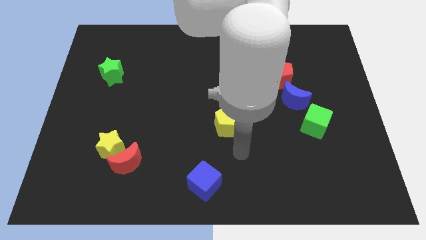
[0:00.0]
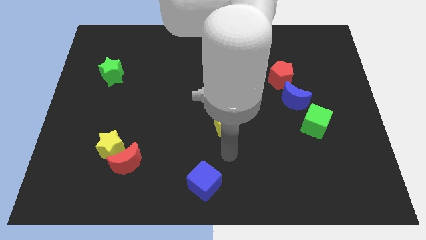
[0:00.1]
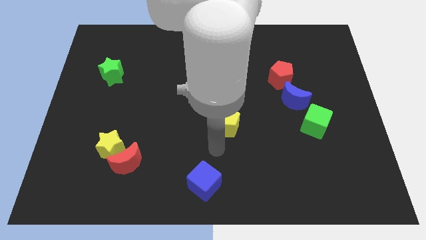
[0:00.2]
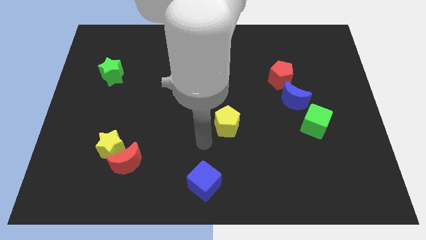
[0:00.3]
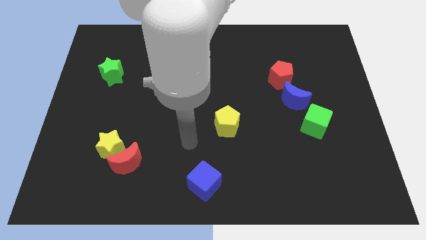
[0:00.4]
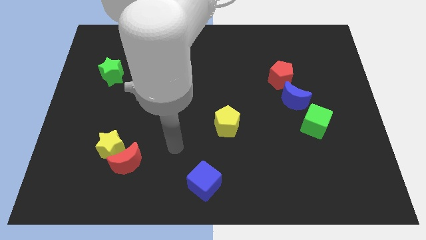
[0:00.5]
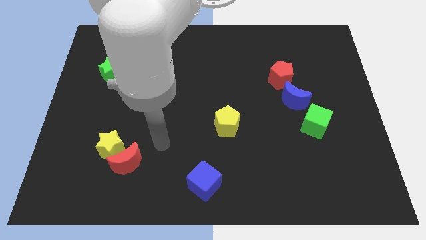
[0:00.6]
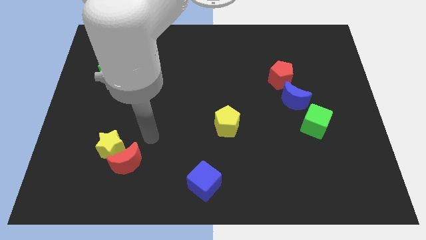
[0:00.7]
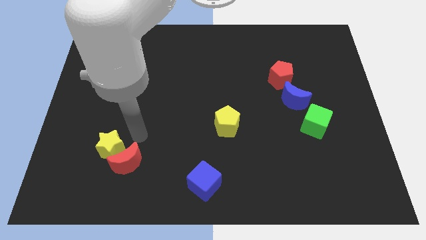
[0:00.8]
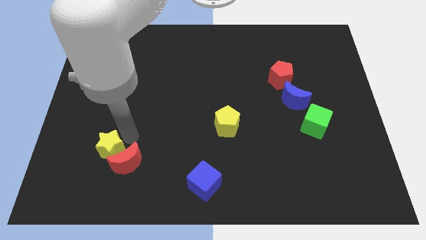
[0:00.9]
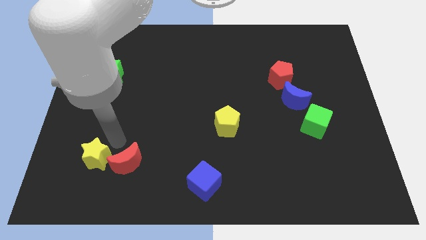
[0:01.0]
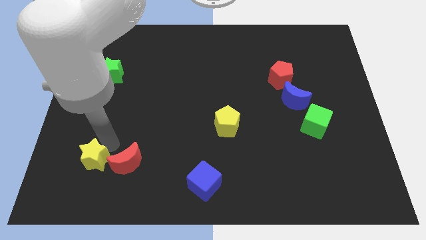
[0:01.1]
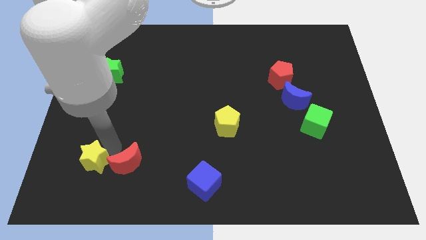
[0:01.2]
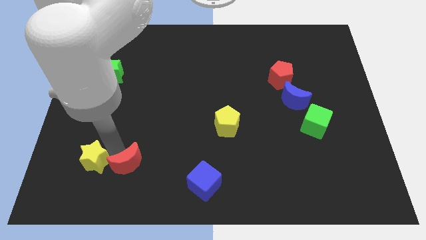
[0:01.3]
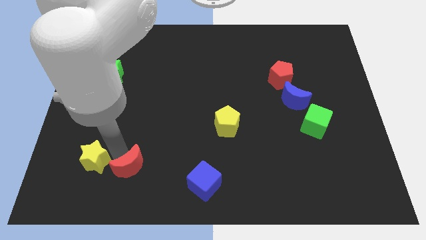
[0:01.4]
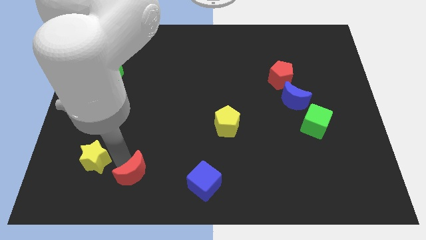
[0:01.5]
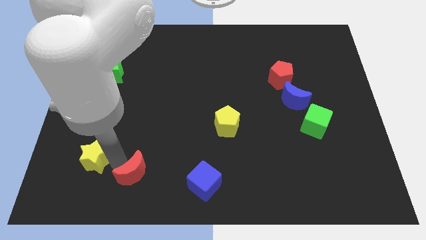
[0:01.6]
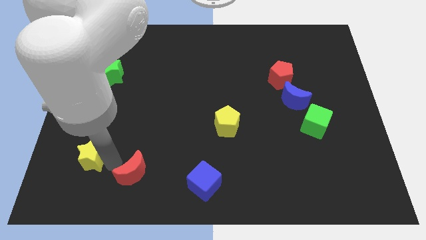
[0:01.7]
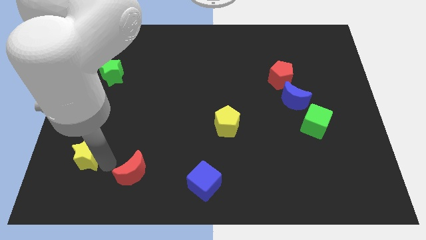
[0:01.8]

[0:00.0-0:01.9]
separate the red moon from the yellow star

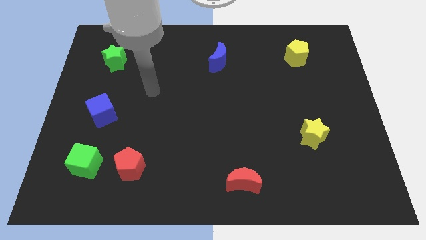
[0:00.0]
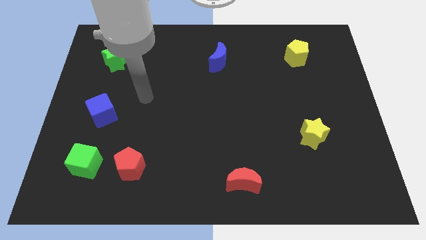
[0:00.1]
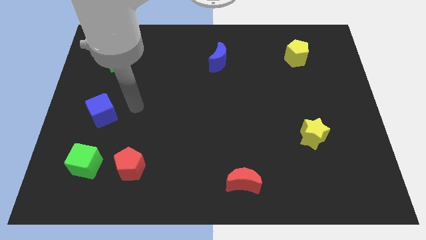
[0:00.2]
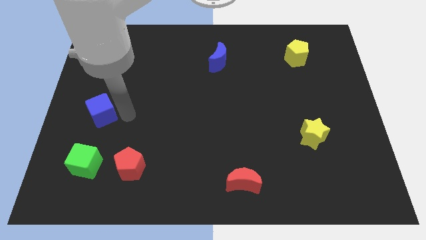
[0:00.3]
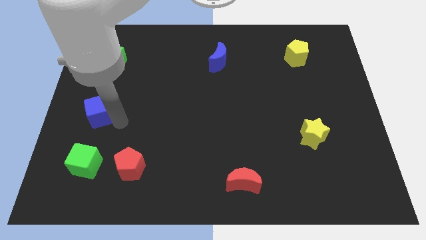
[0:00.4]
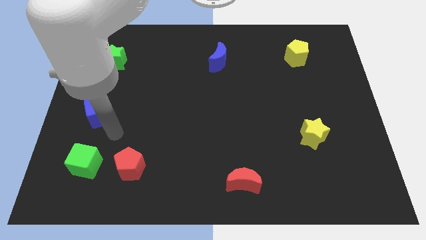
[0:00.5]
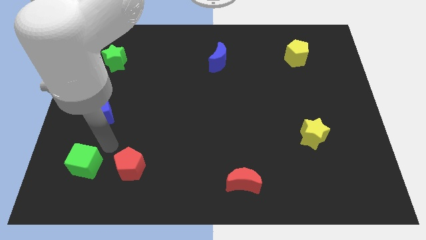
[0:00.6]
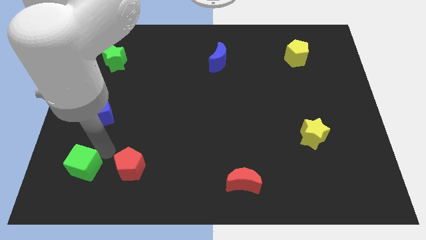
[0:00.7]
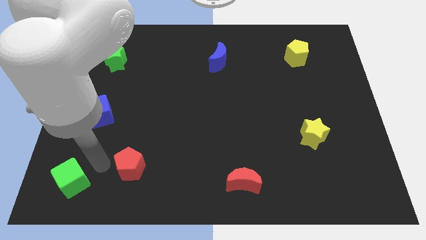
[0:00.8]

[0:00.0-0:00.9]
move the red pentagon away from the green cube

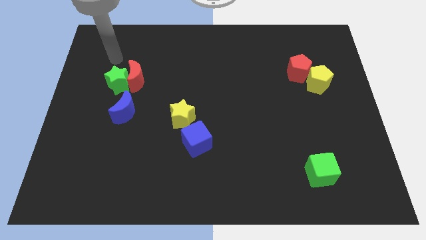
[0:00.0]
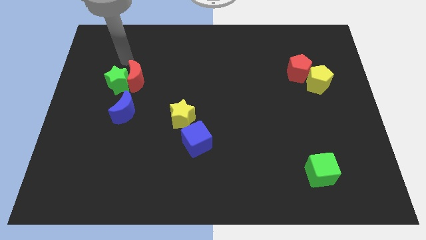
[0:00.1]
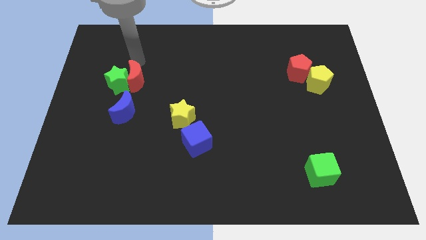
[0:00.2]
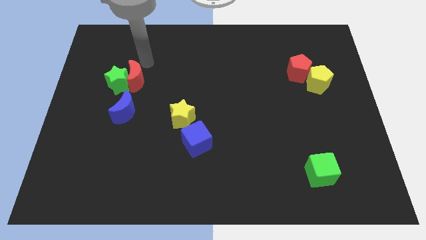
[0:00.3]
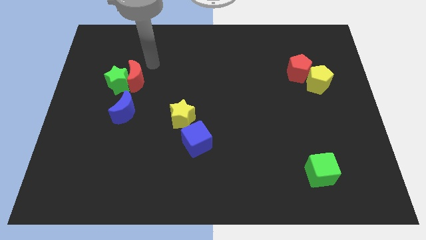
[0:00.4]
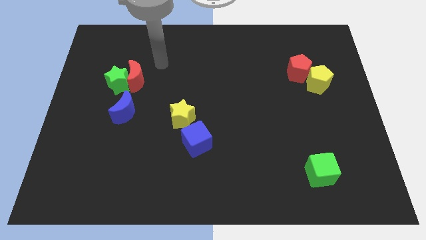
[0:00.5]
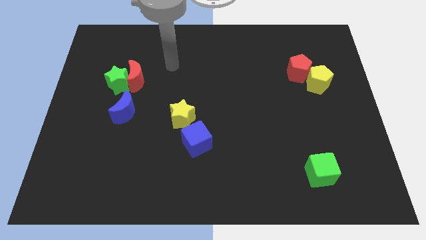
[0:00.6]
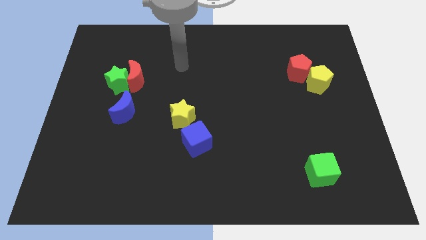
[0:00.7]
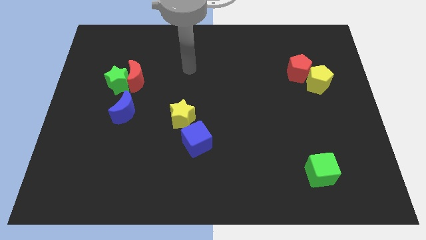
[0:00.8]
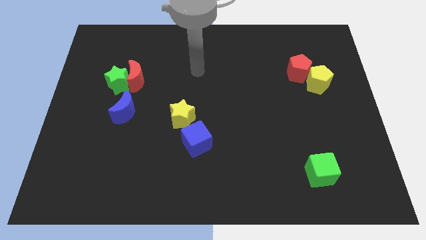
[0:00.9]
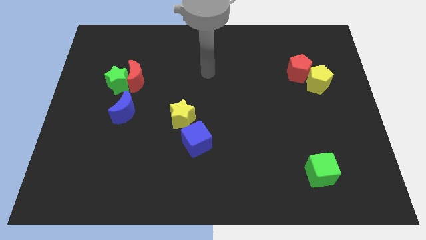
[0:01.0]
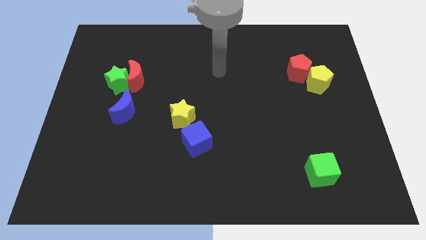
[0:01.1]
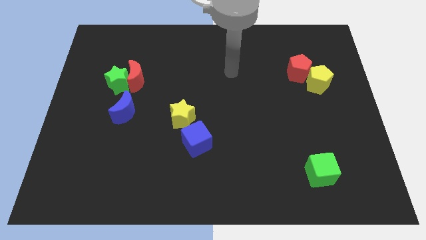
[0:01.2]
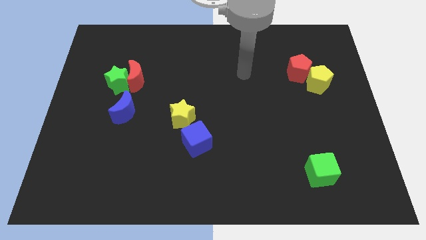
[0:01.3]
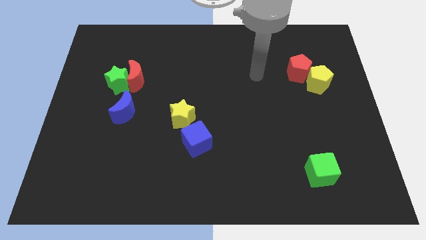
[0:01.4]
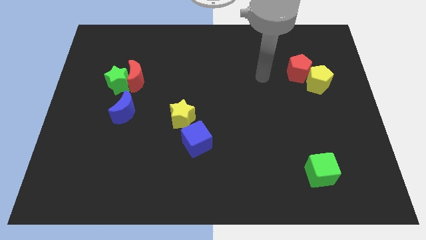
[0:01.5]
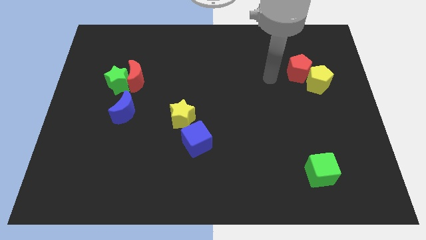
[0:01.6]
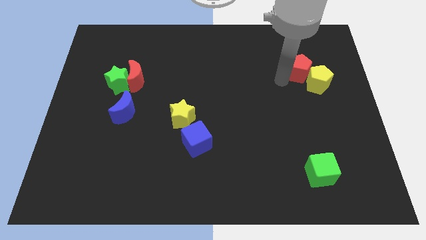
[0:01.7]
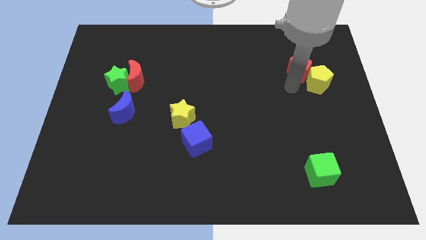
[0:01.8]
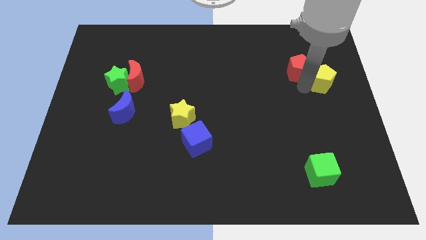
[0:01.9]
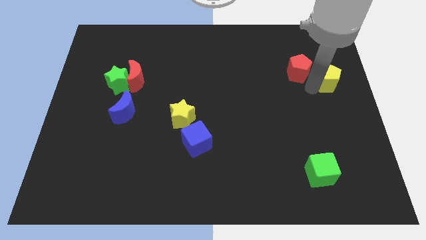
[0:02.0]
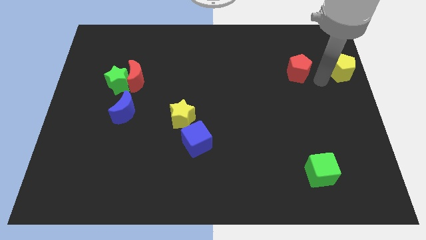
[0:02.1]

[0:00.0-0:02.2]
separate the red pentagon from the yellow pentagon

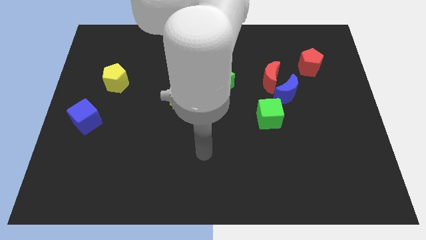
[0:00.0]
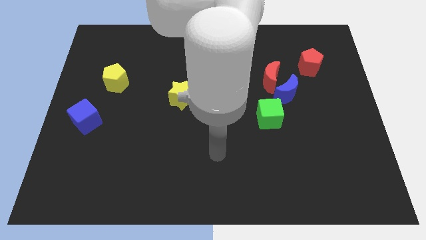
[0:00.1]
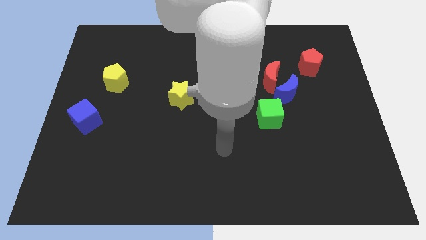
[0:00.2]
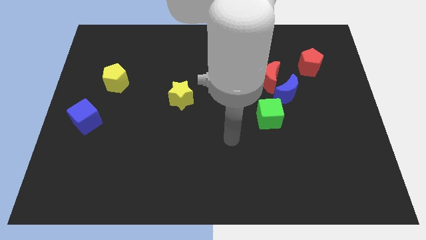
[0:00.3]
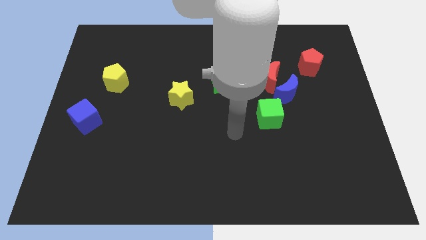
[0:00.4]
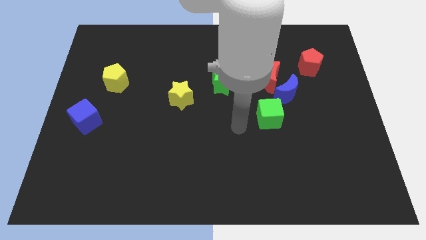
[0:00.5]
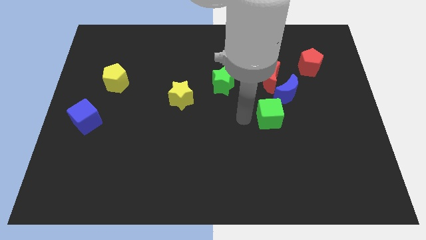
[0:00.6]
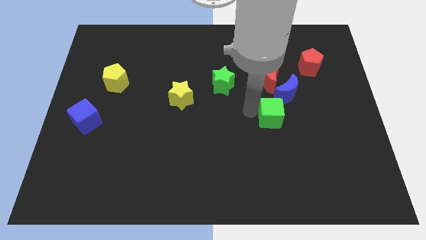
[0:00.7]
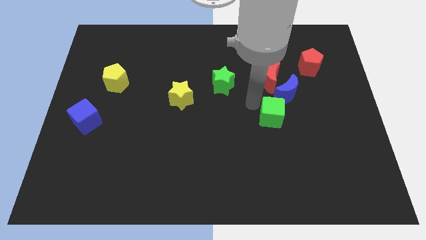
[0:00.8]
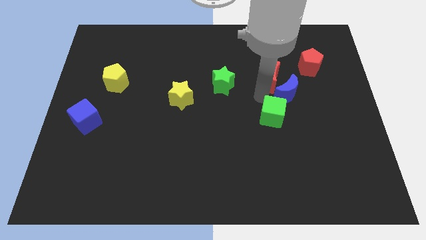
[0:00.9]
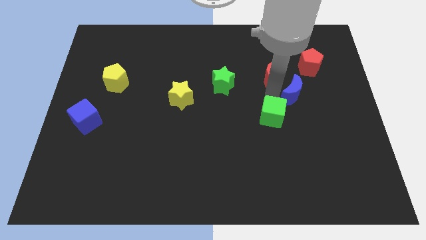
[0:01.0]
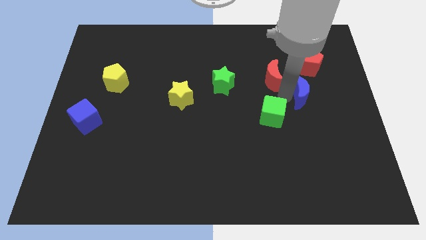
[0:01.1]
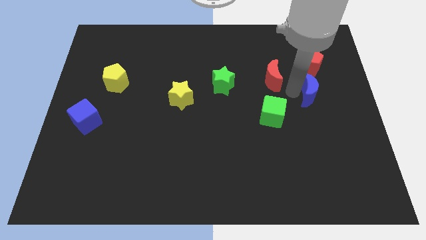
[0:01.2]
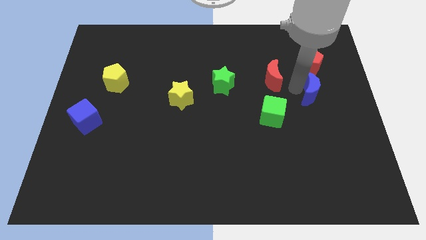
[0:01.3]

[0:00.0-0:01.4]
separate the red moon from the blue moon

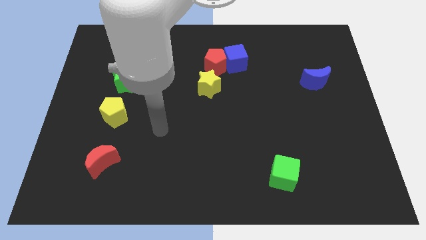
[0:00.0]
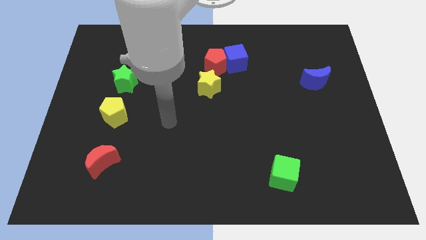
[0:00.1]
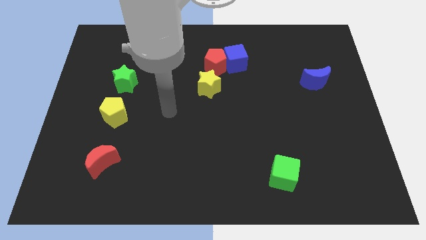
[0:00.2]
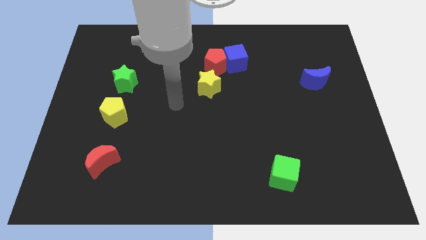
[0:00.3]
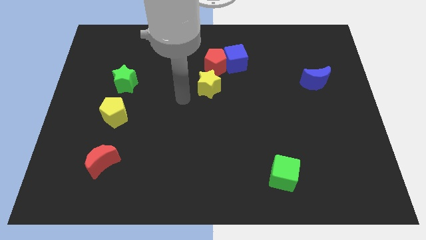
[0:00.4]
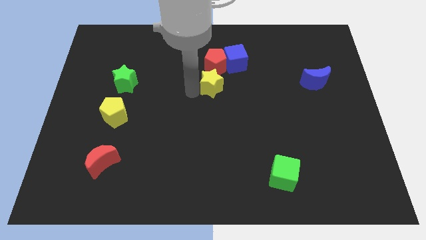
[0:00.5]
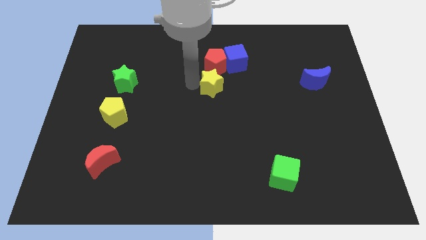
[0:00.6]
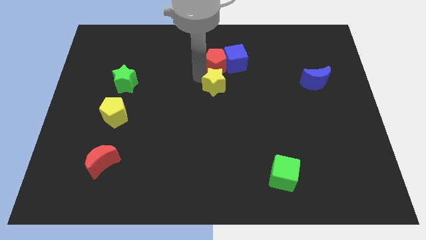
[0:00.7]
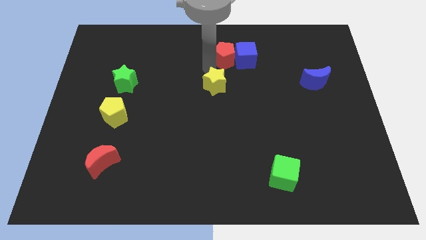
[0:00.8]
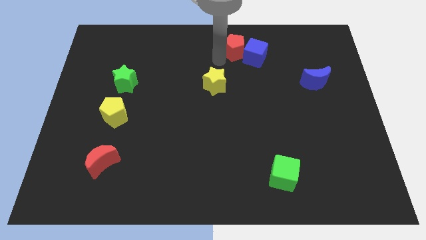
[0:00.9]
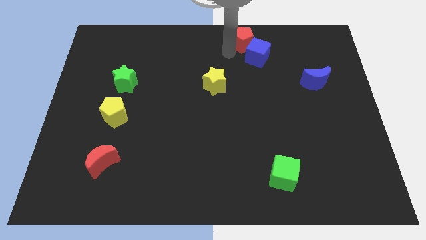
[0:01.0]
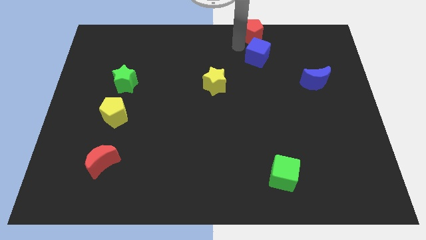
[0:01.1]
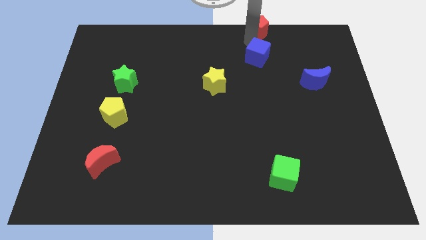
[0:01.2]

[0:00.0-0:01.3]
pull the blue cube apart from the red pentagon

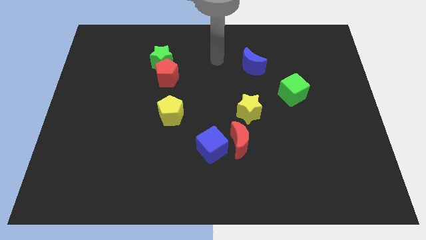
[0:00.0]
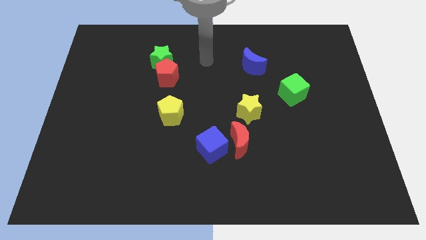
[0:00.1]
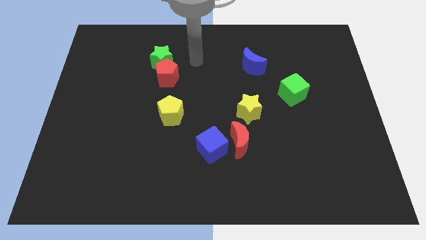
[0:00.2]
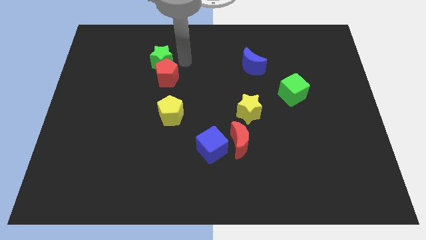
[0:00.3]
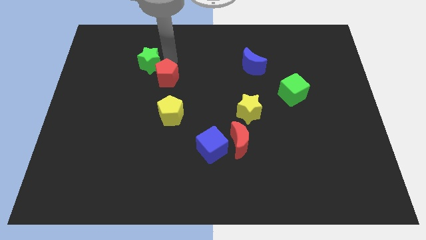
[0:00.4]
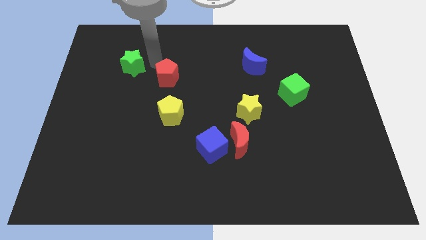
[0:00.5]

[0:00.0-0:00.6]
pull the red pentagon apart from the green star

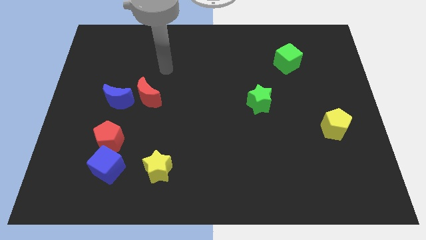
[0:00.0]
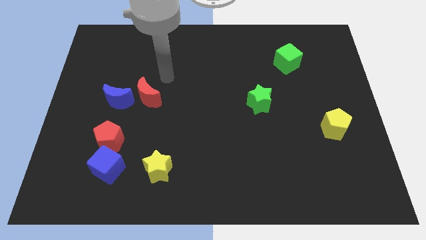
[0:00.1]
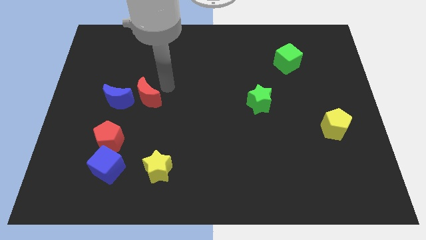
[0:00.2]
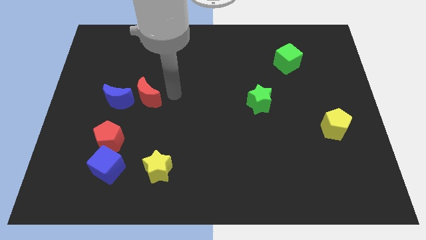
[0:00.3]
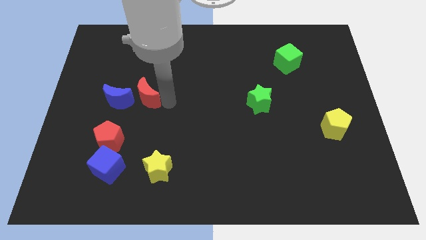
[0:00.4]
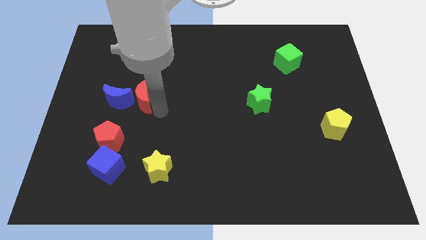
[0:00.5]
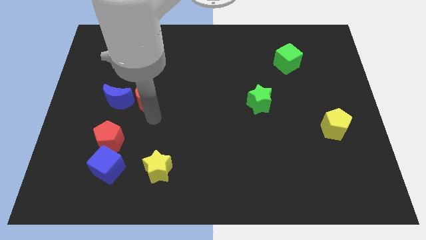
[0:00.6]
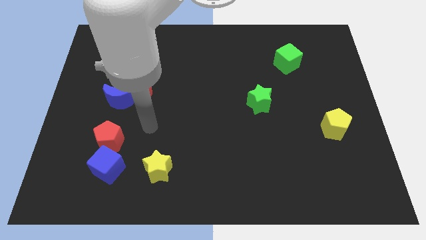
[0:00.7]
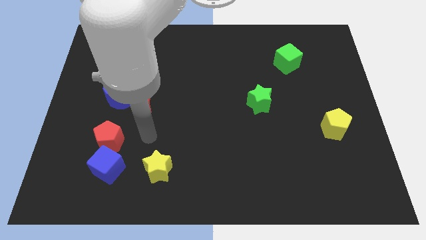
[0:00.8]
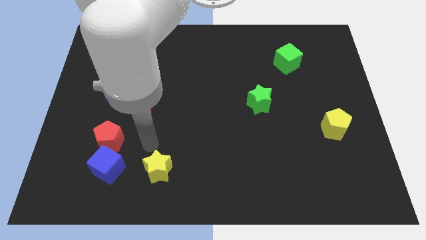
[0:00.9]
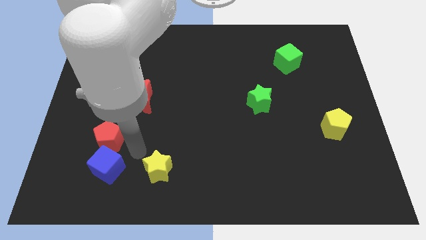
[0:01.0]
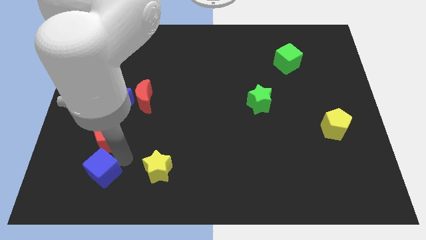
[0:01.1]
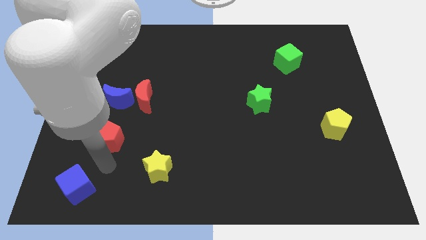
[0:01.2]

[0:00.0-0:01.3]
move the red pentagon away from the blue cube
